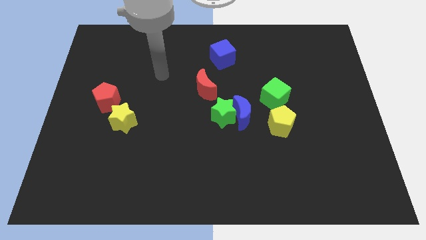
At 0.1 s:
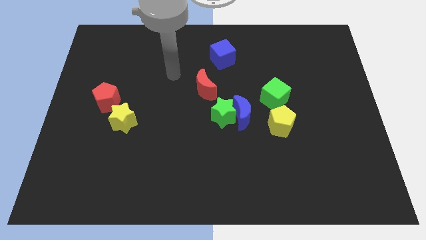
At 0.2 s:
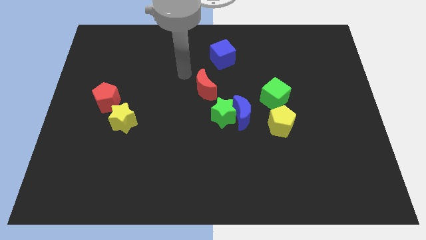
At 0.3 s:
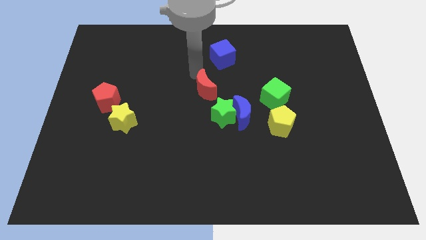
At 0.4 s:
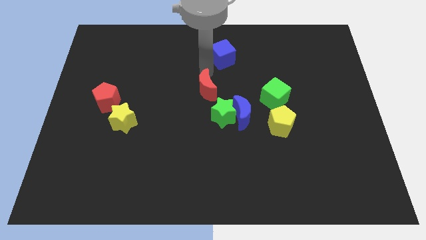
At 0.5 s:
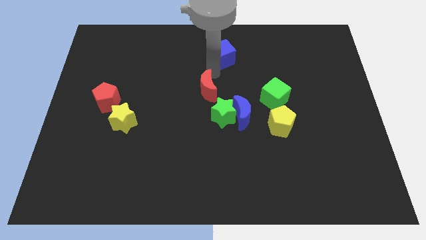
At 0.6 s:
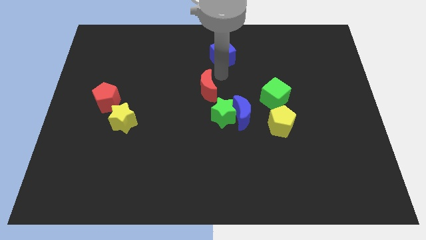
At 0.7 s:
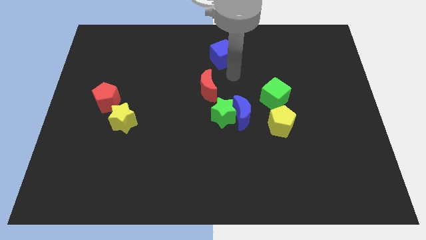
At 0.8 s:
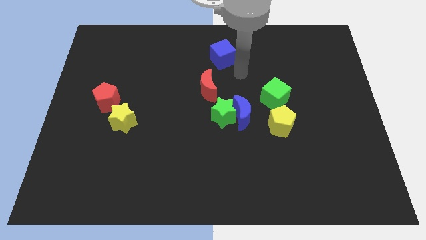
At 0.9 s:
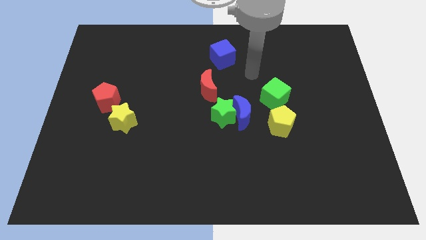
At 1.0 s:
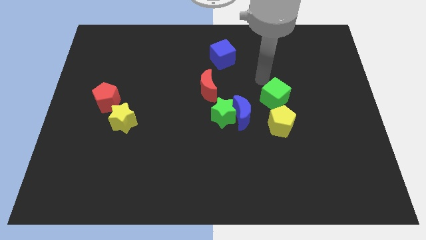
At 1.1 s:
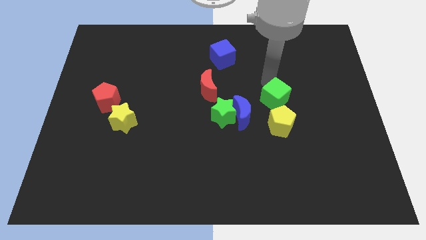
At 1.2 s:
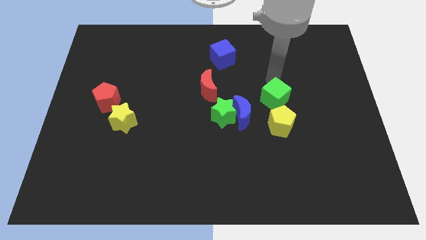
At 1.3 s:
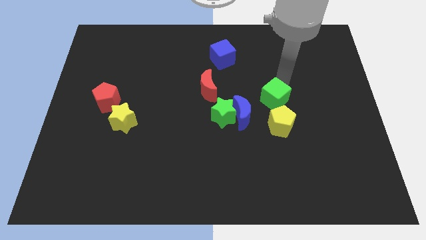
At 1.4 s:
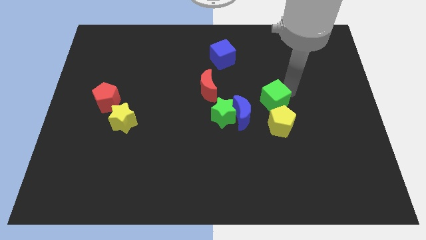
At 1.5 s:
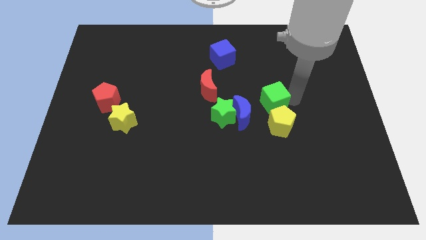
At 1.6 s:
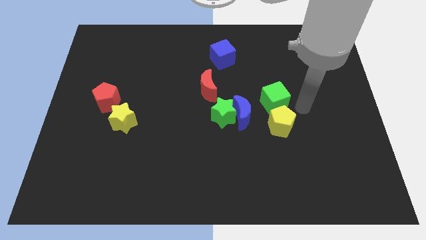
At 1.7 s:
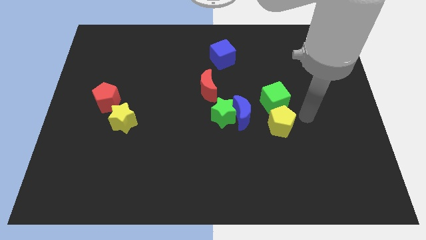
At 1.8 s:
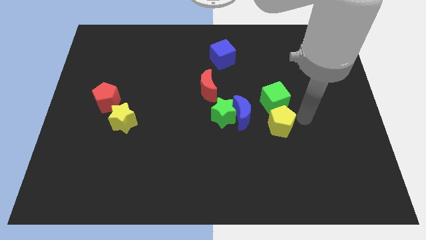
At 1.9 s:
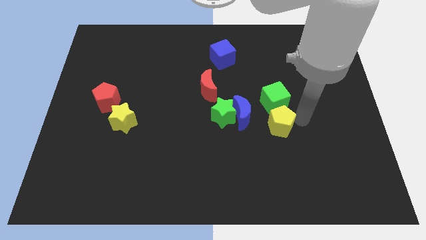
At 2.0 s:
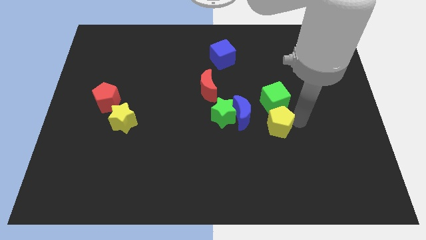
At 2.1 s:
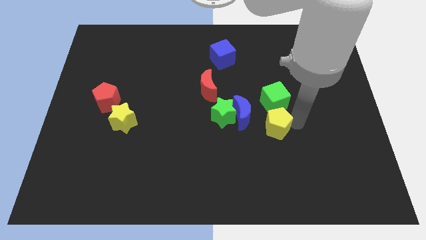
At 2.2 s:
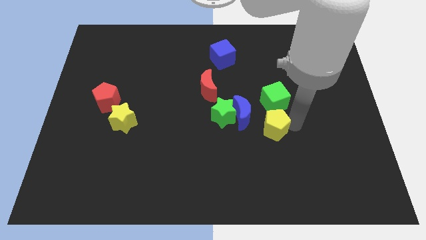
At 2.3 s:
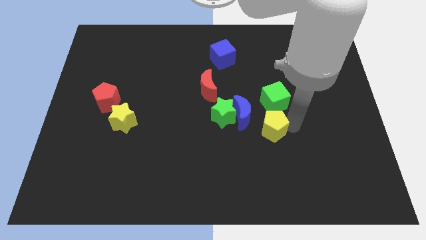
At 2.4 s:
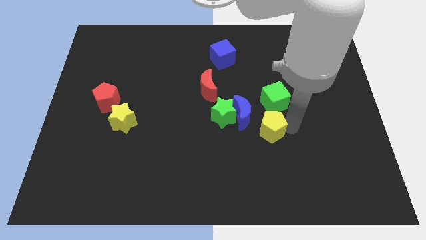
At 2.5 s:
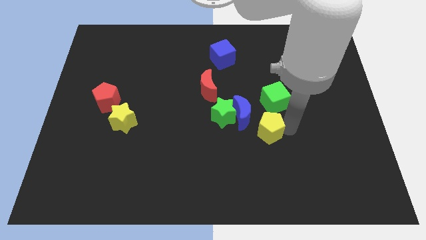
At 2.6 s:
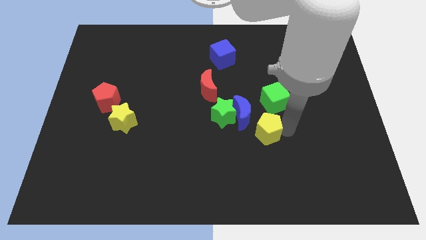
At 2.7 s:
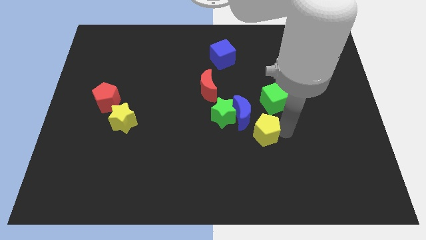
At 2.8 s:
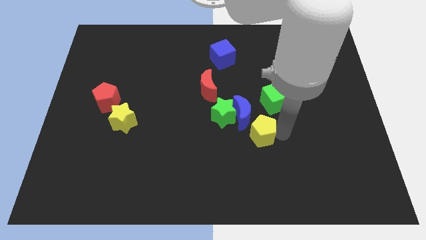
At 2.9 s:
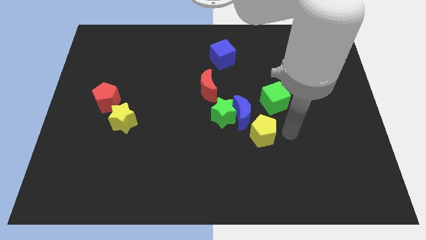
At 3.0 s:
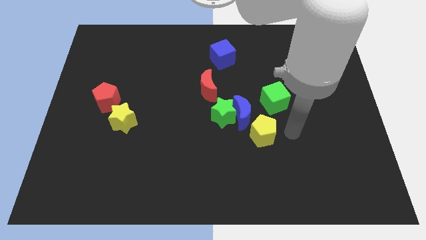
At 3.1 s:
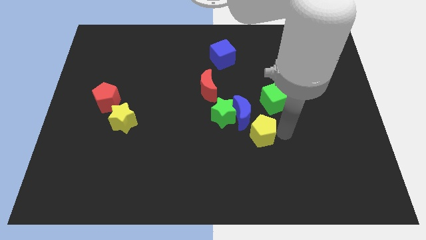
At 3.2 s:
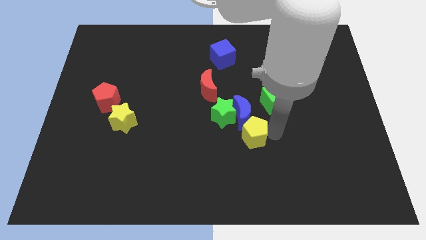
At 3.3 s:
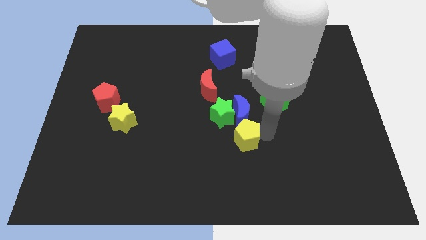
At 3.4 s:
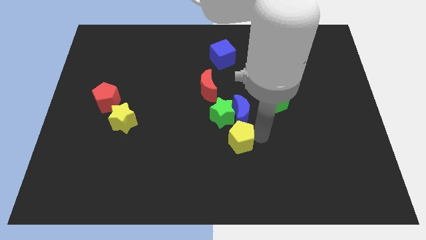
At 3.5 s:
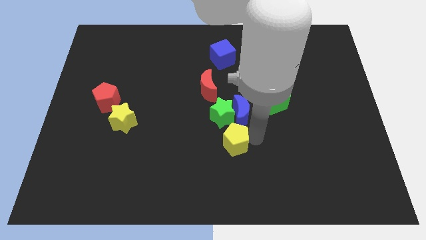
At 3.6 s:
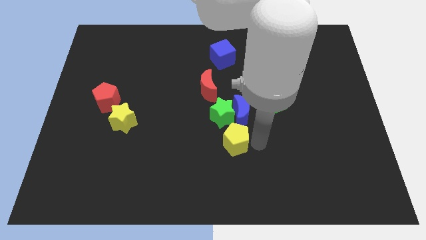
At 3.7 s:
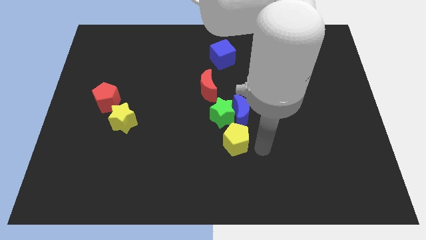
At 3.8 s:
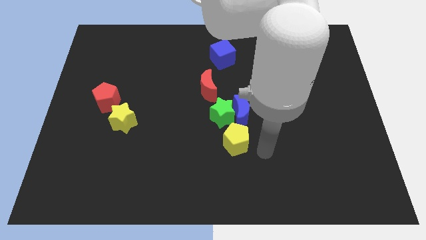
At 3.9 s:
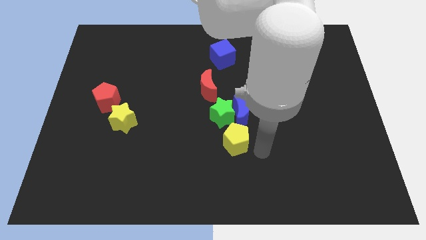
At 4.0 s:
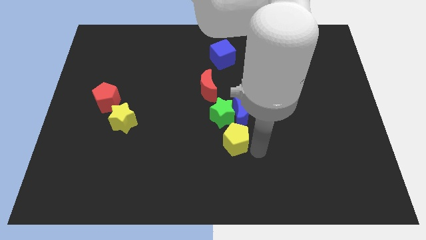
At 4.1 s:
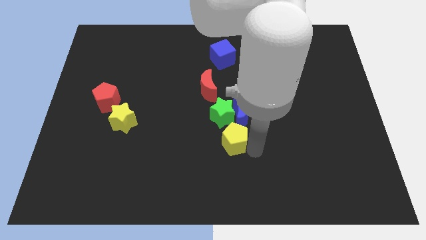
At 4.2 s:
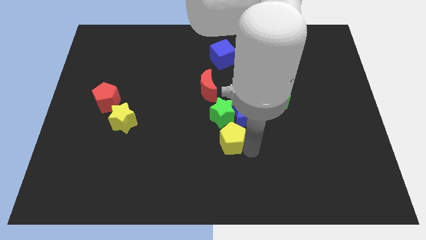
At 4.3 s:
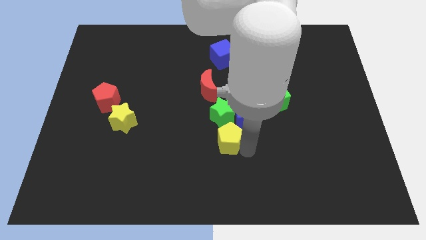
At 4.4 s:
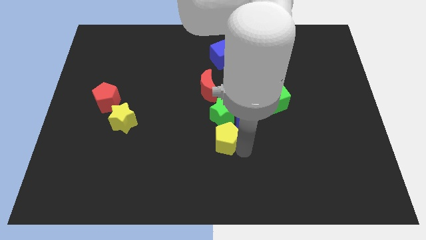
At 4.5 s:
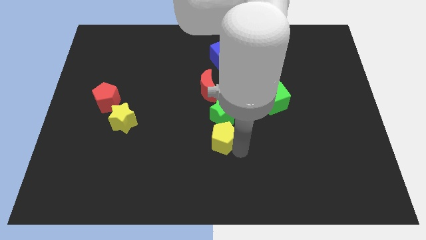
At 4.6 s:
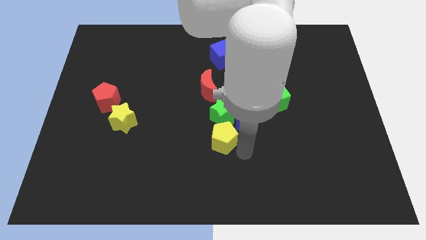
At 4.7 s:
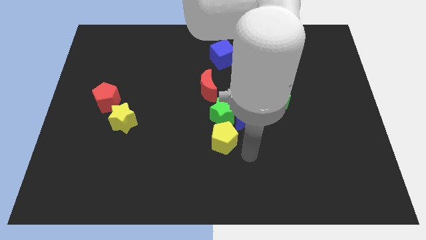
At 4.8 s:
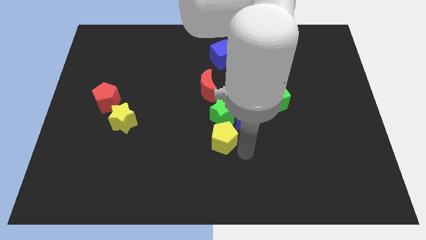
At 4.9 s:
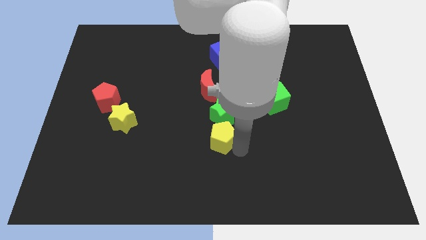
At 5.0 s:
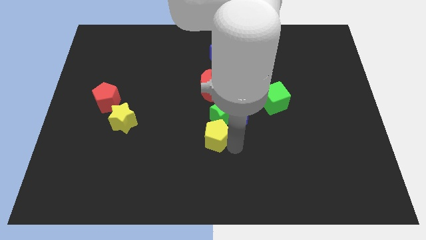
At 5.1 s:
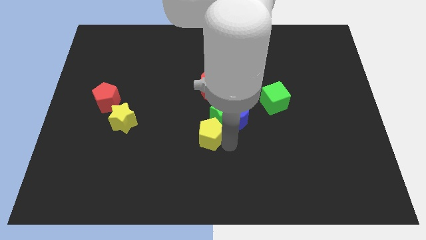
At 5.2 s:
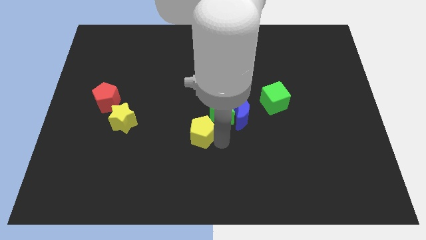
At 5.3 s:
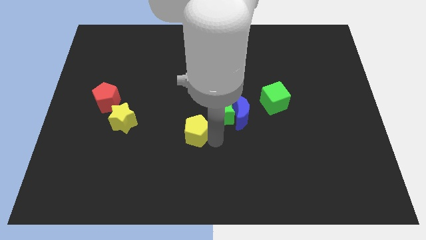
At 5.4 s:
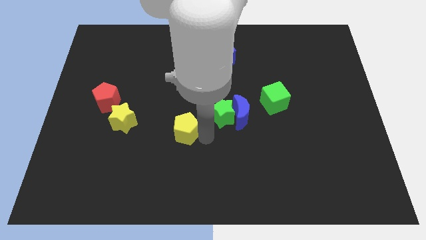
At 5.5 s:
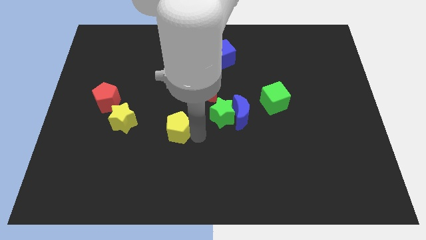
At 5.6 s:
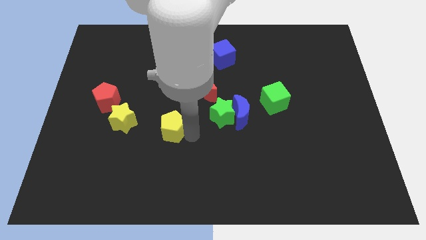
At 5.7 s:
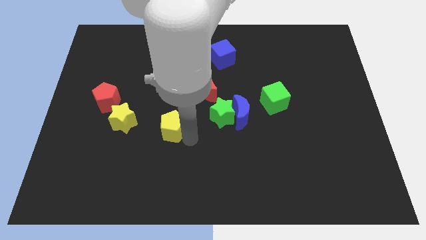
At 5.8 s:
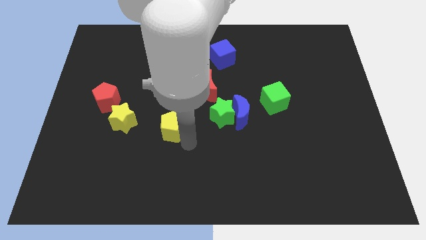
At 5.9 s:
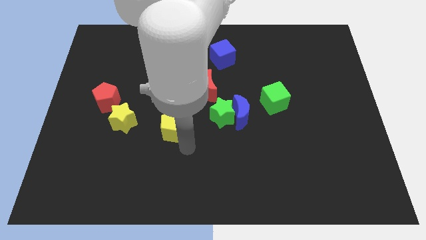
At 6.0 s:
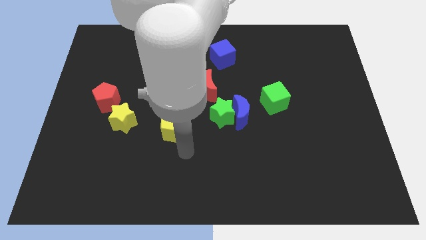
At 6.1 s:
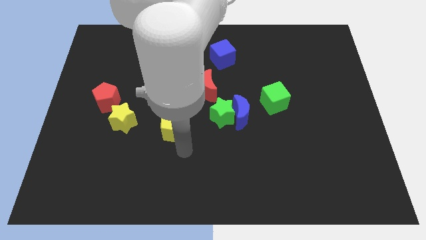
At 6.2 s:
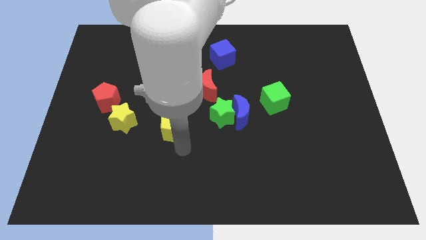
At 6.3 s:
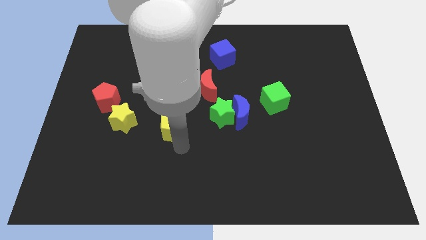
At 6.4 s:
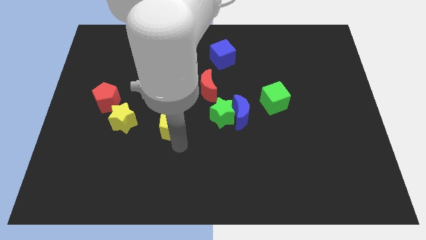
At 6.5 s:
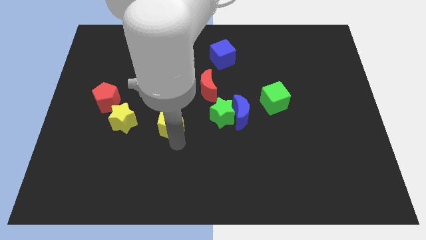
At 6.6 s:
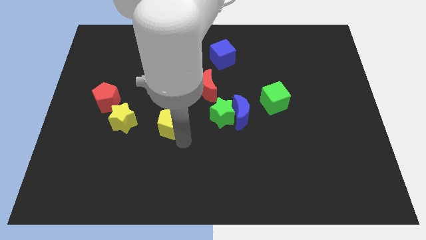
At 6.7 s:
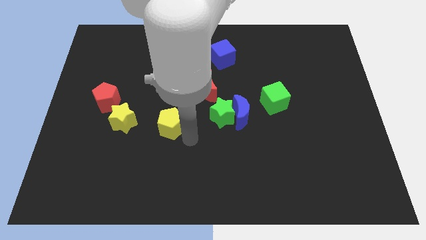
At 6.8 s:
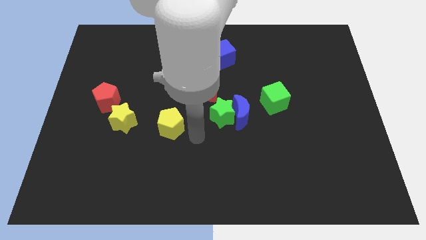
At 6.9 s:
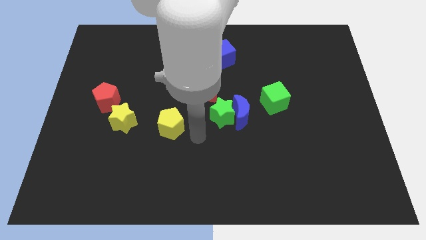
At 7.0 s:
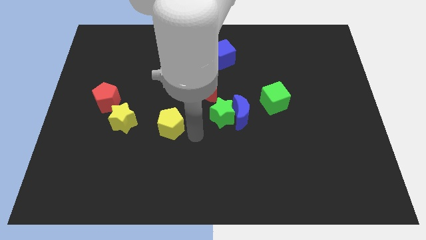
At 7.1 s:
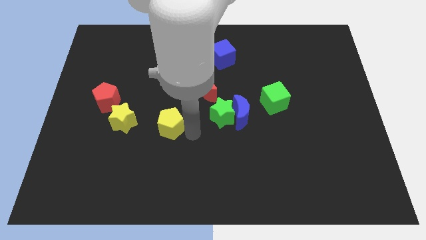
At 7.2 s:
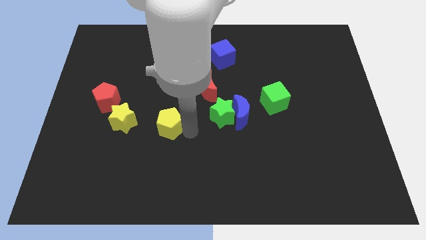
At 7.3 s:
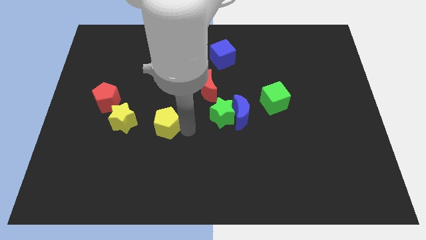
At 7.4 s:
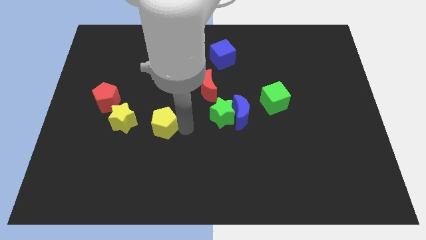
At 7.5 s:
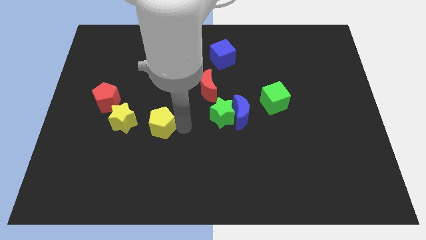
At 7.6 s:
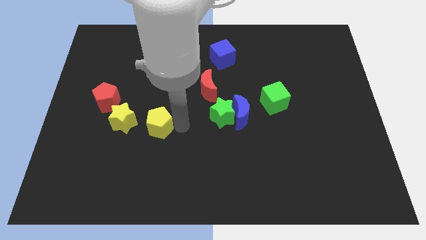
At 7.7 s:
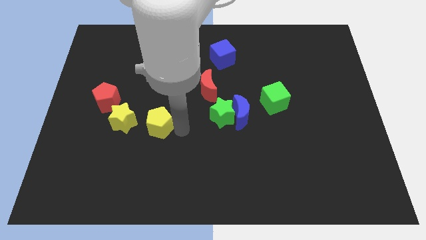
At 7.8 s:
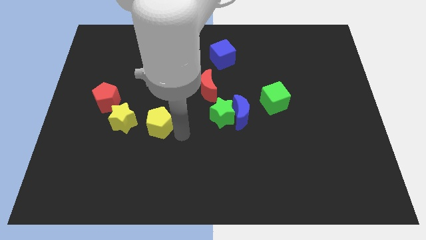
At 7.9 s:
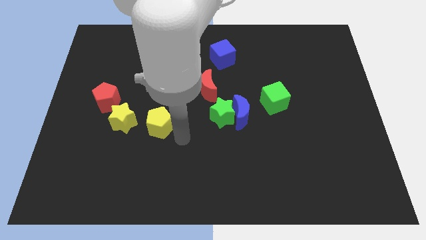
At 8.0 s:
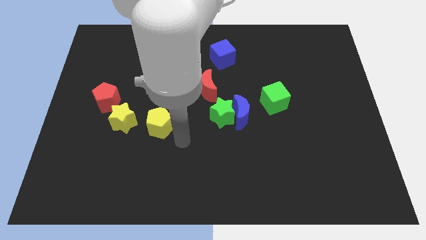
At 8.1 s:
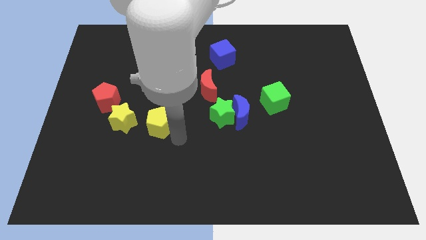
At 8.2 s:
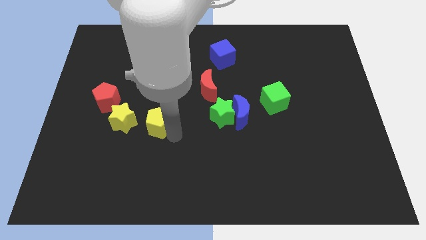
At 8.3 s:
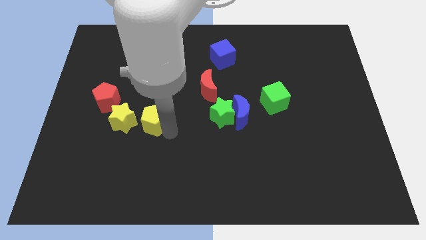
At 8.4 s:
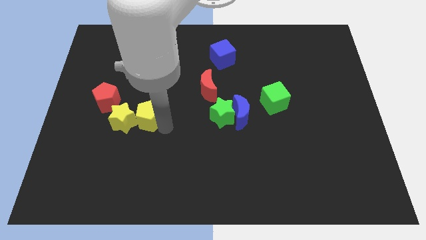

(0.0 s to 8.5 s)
put the yellow pentagon towards the yellow star
